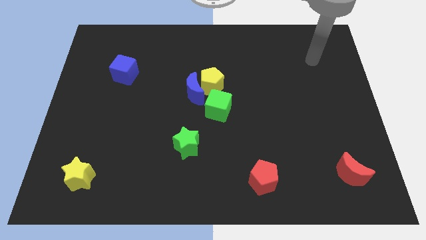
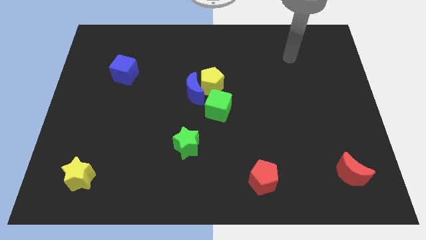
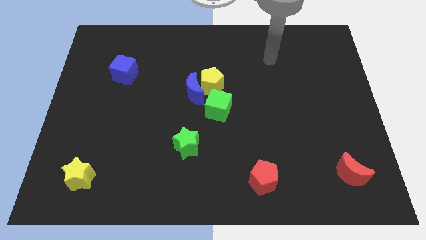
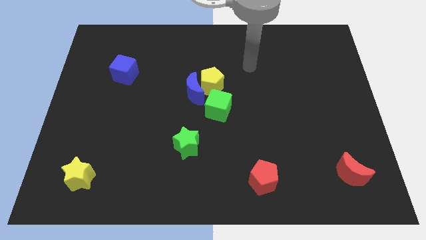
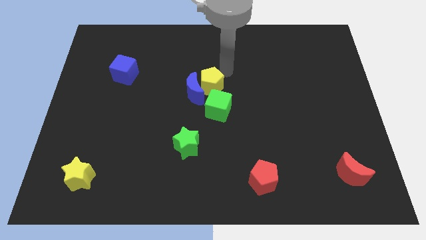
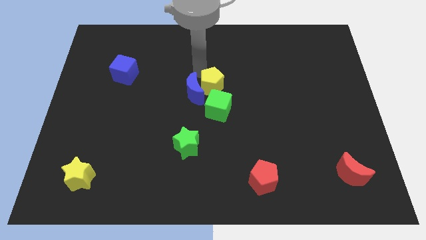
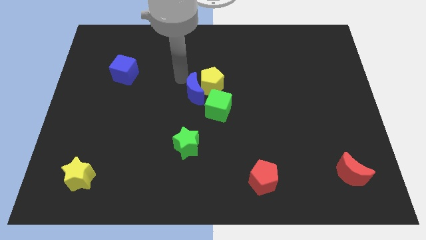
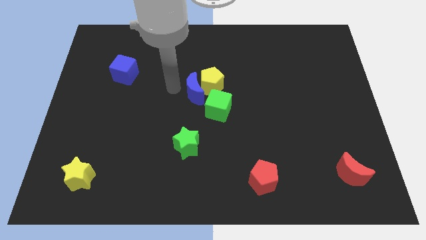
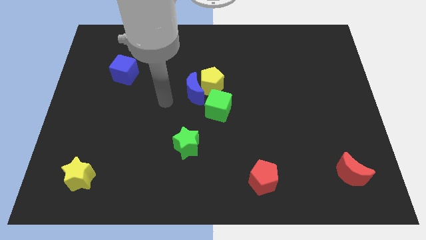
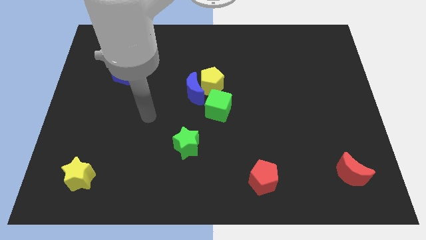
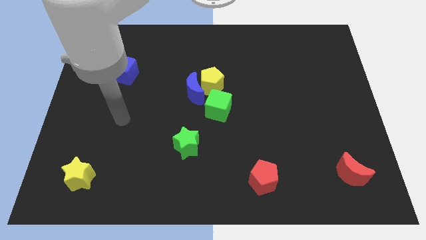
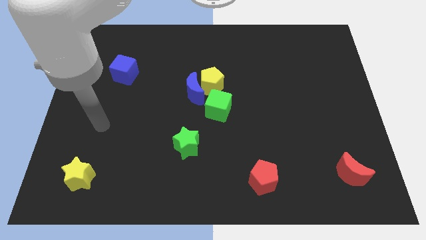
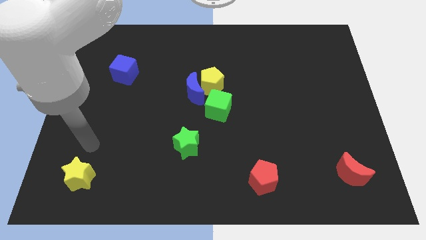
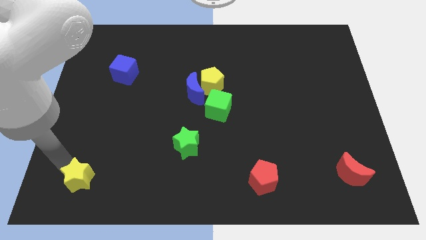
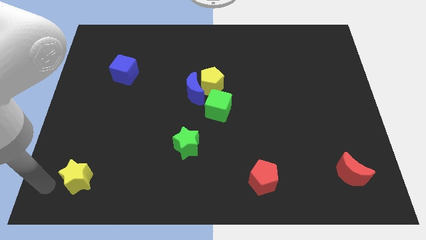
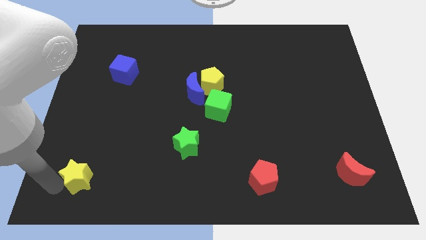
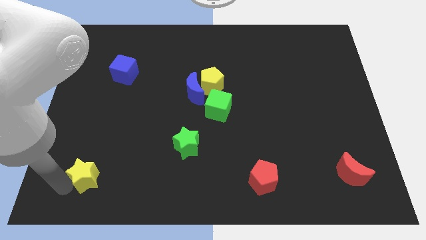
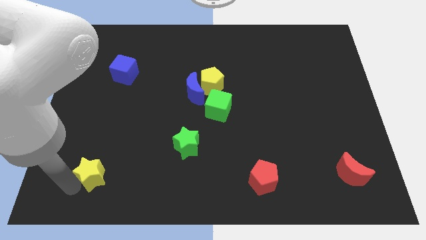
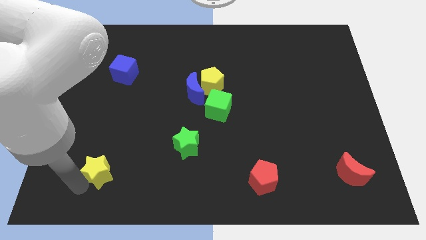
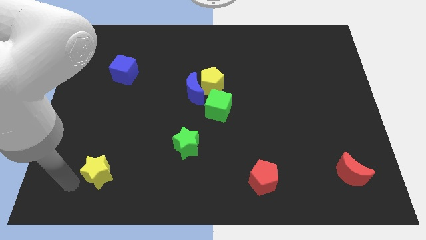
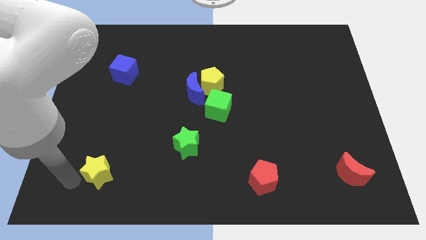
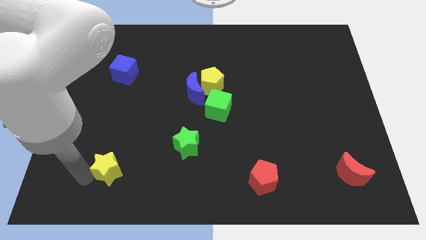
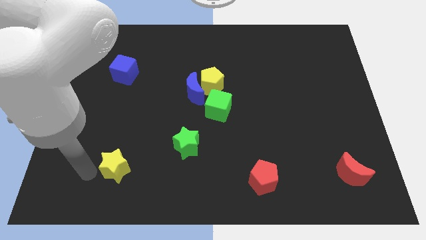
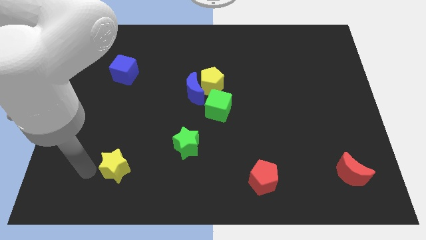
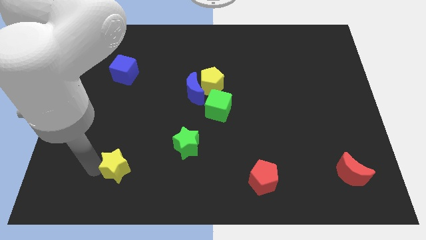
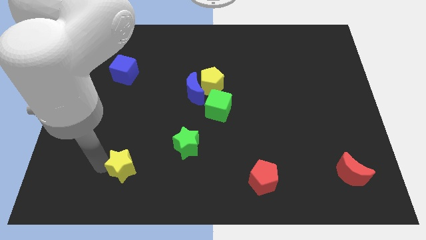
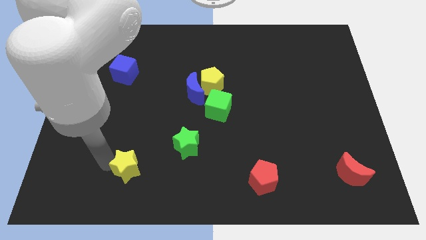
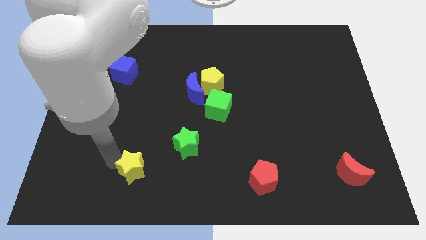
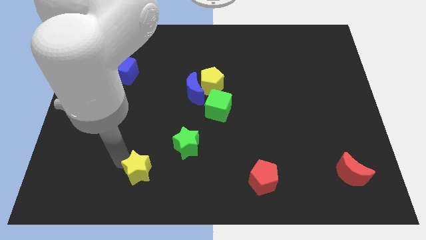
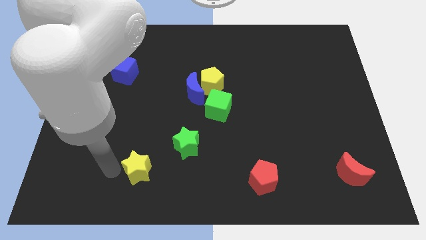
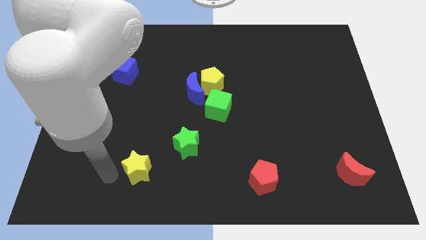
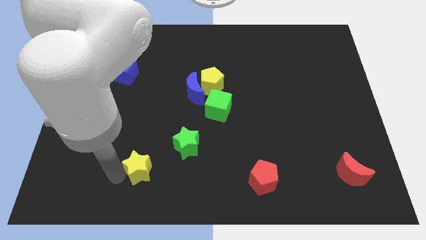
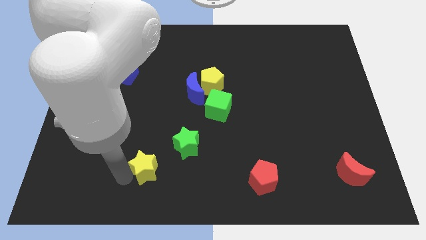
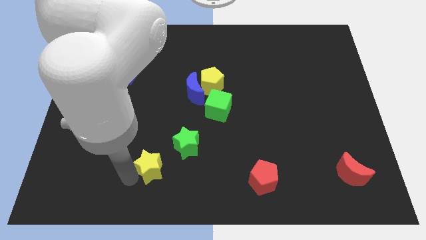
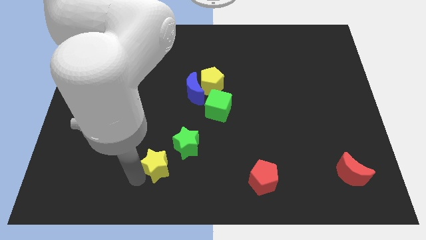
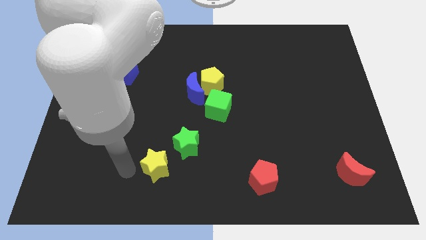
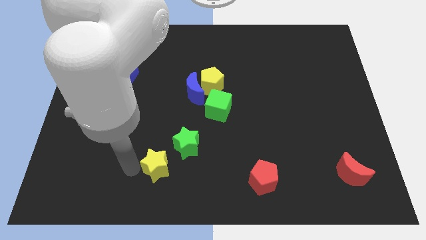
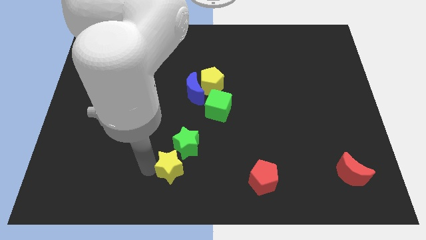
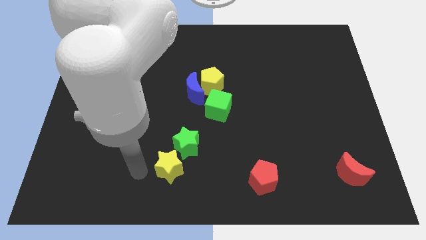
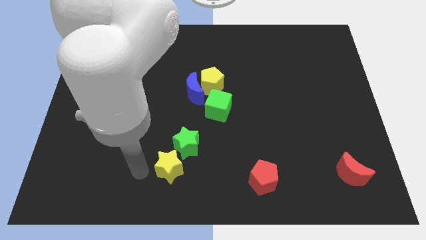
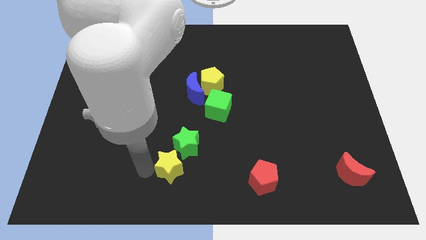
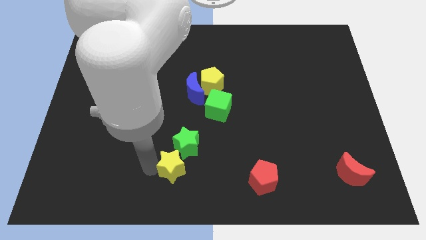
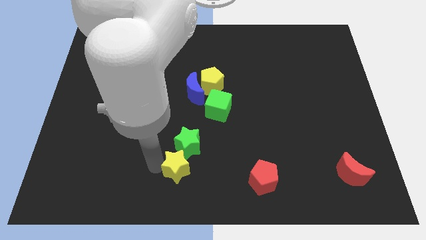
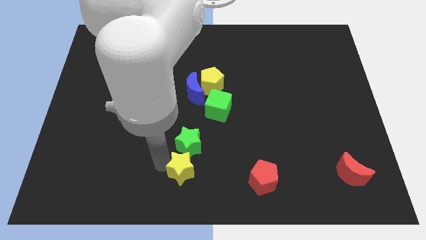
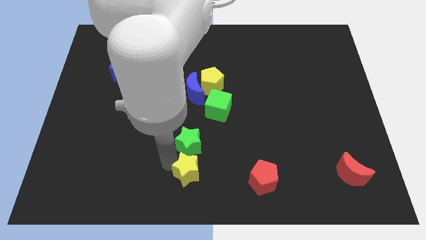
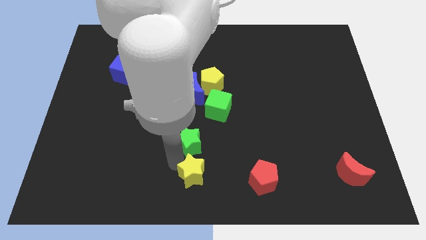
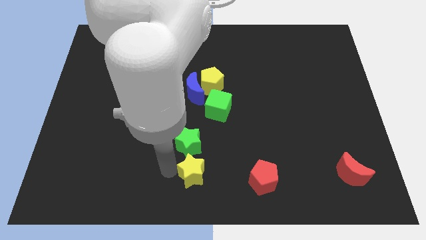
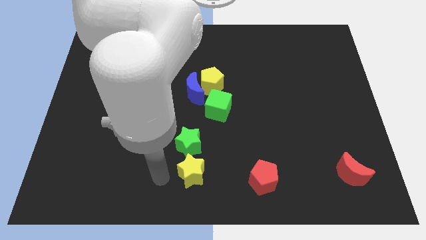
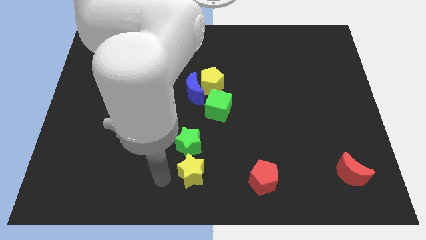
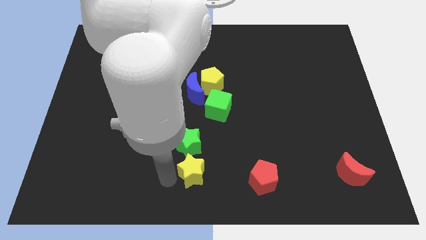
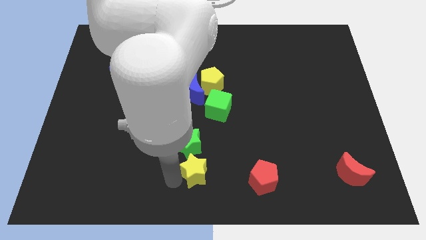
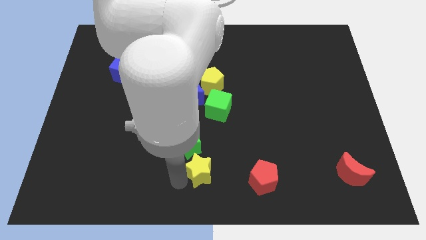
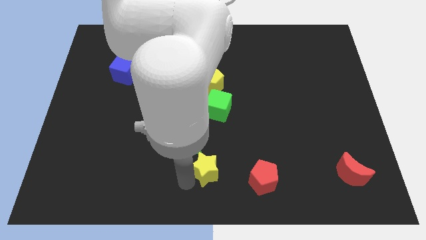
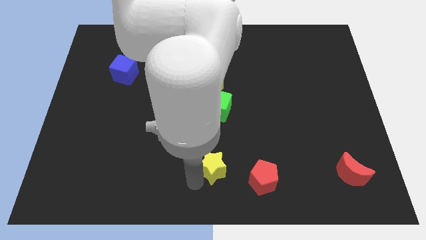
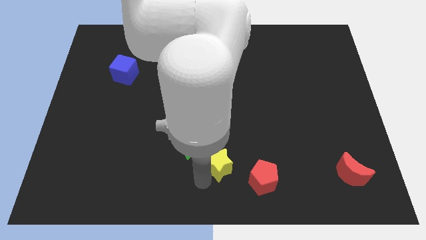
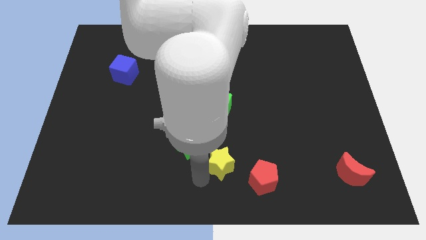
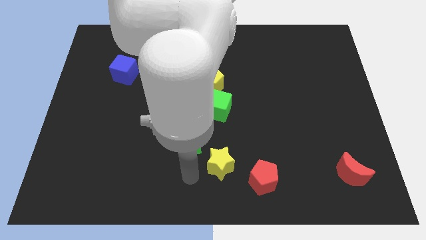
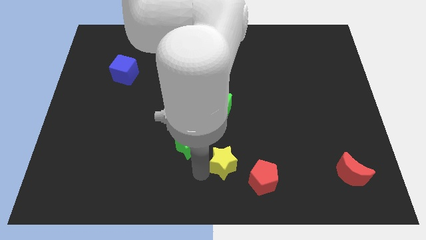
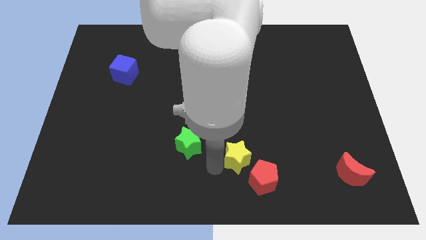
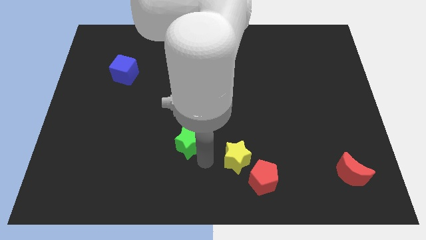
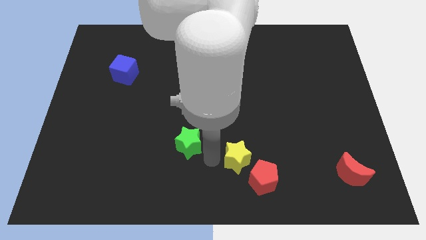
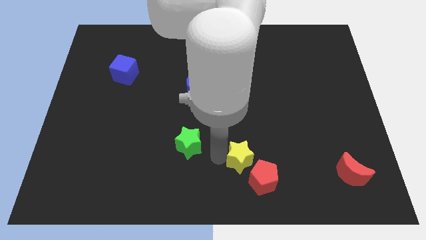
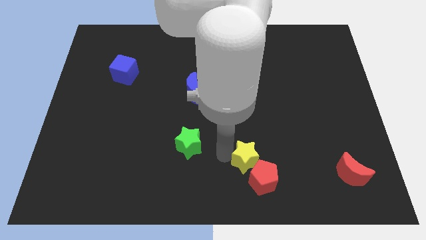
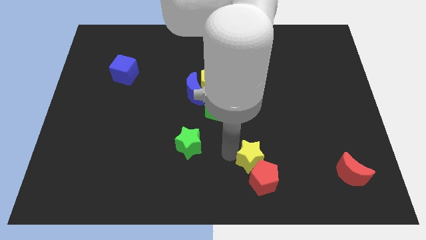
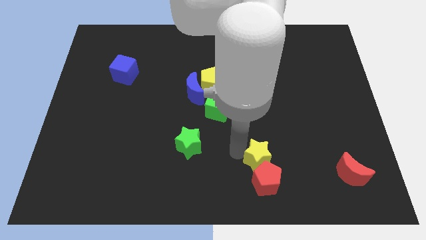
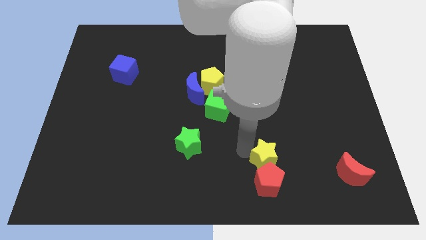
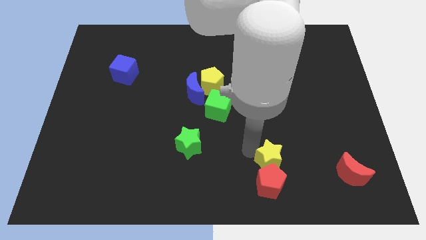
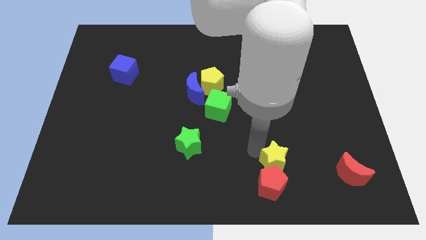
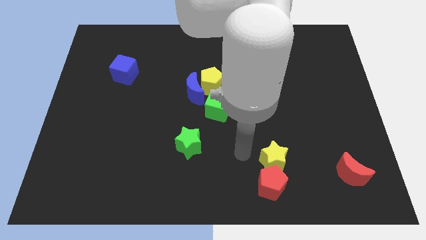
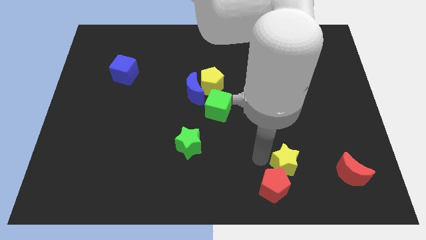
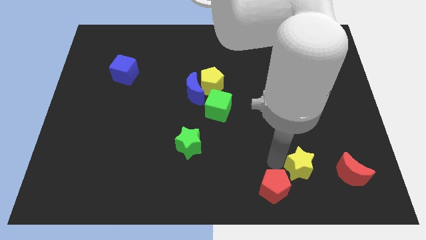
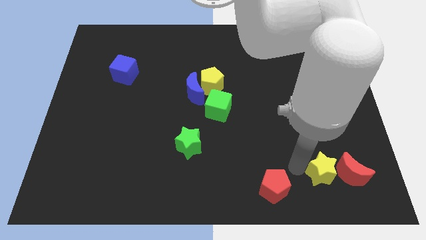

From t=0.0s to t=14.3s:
push the yellow star towards the red moon

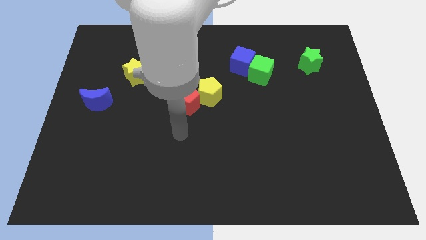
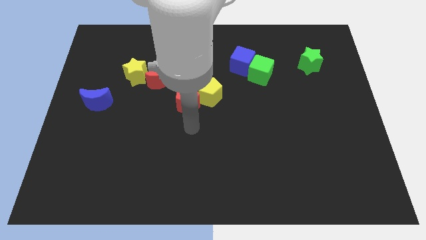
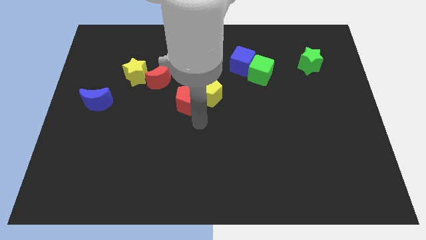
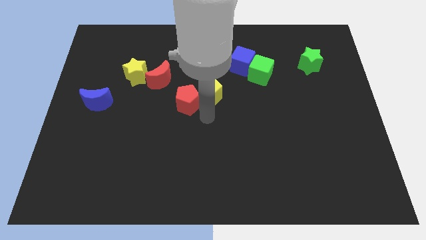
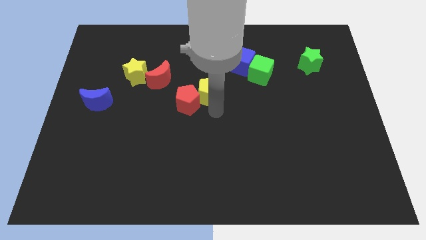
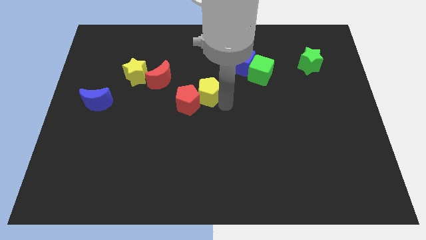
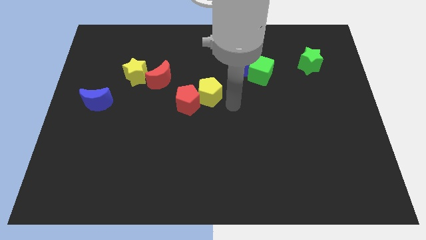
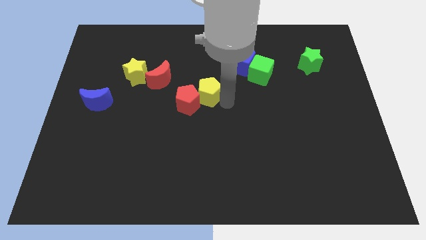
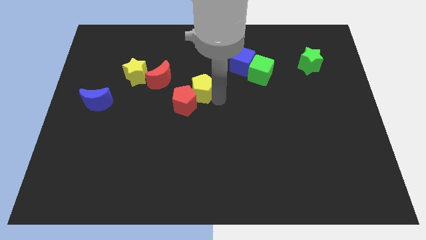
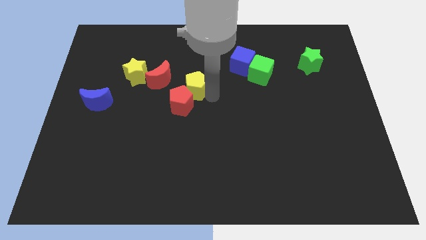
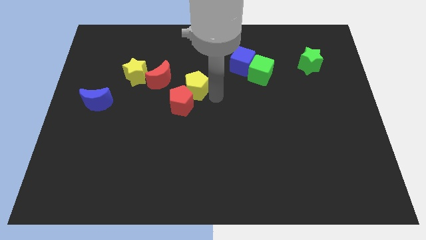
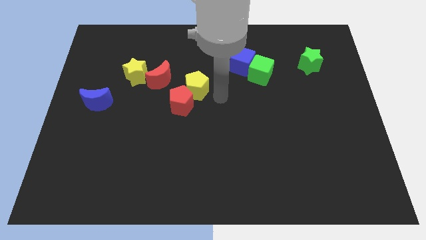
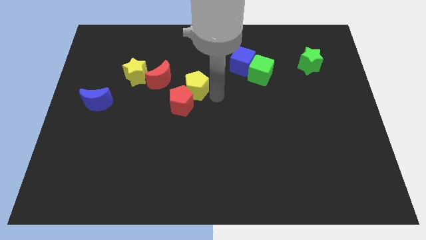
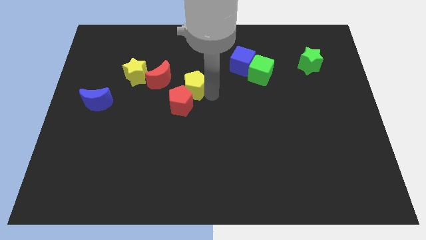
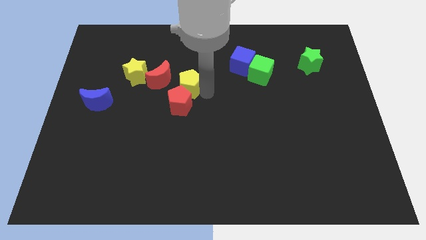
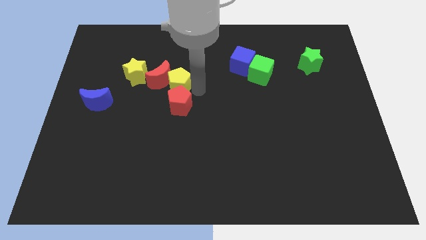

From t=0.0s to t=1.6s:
push the yellow pentagon to the red moon
